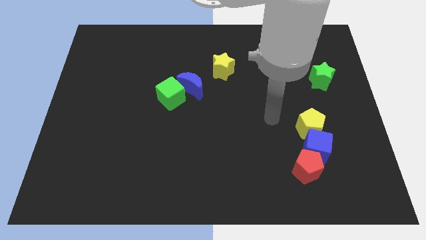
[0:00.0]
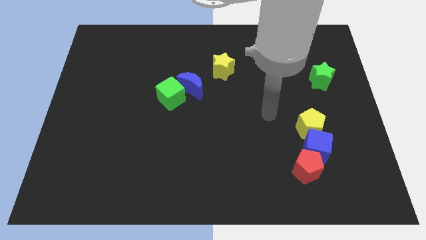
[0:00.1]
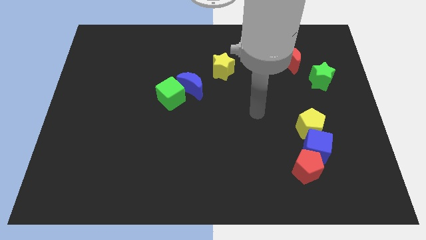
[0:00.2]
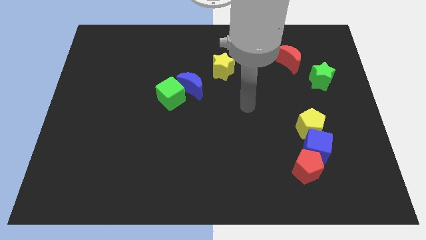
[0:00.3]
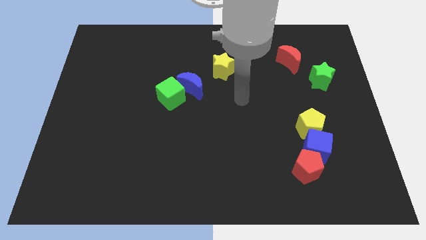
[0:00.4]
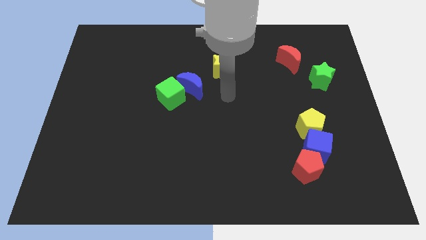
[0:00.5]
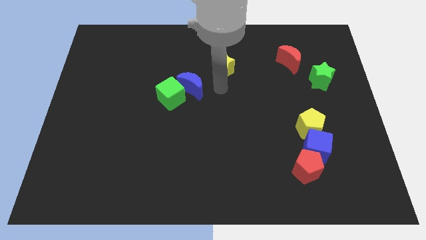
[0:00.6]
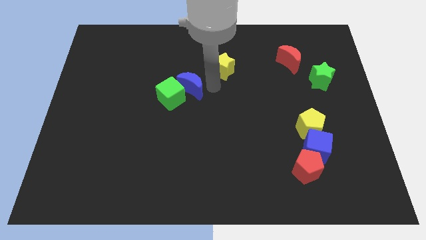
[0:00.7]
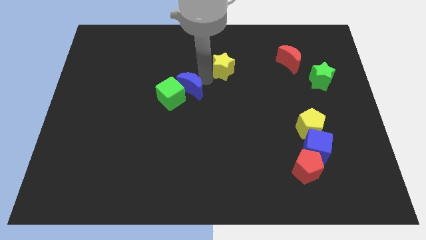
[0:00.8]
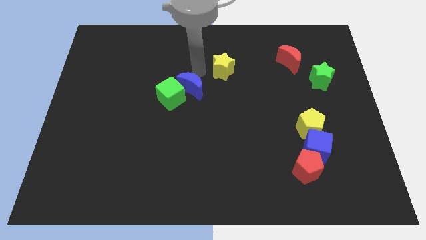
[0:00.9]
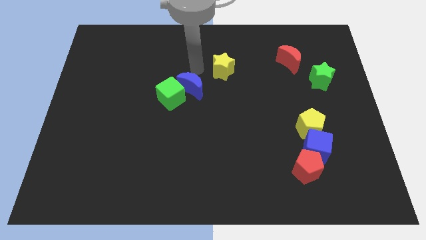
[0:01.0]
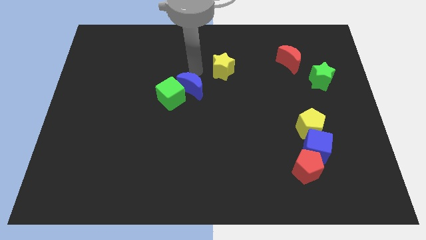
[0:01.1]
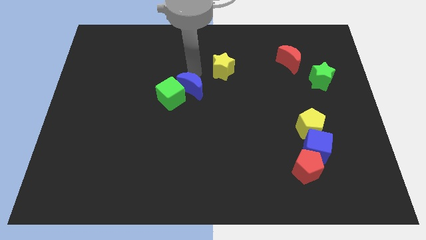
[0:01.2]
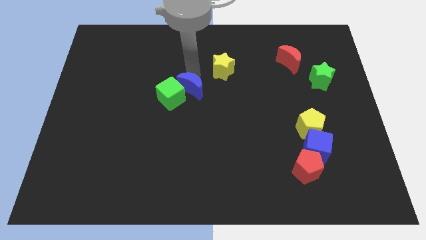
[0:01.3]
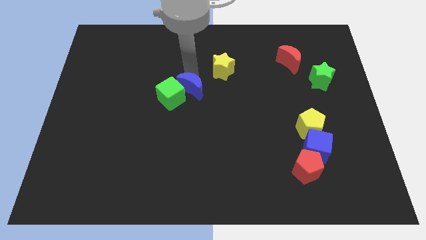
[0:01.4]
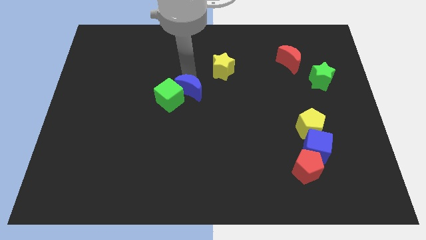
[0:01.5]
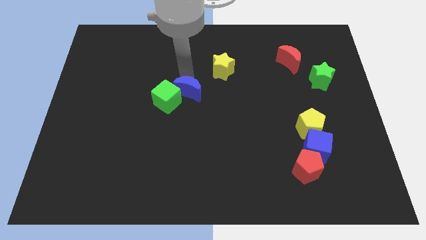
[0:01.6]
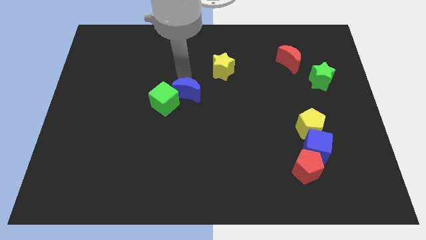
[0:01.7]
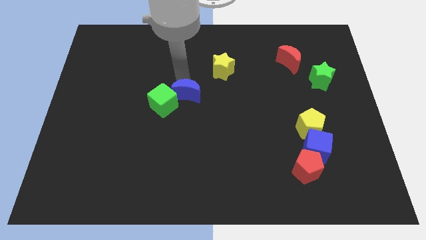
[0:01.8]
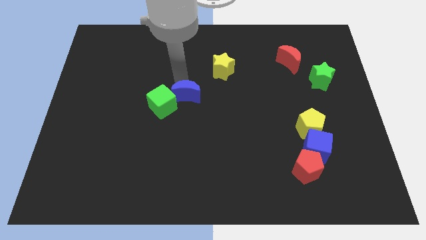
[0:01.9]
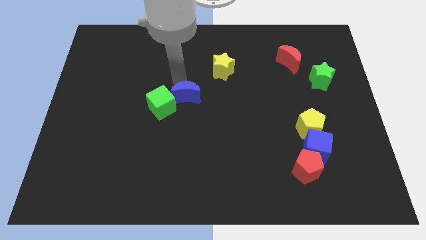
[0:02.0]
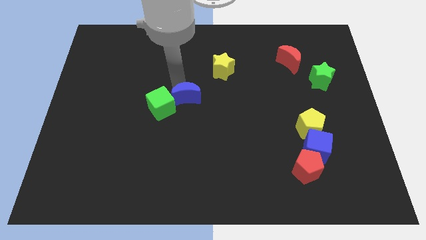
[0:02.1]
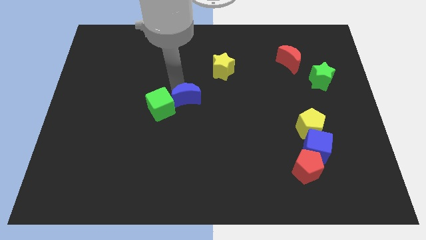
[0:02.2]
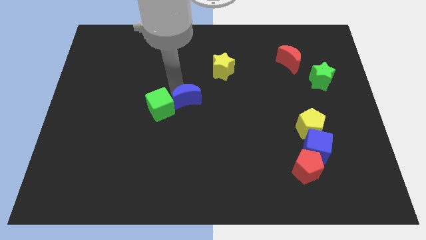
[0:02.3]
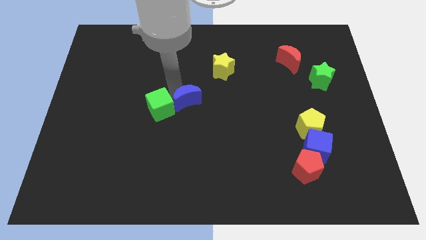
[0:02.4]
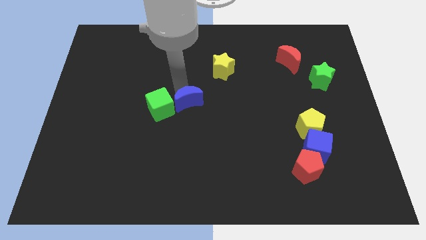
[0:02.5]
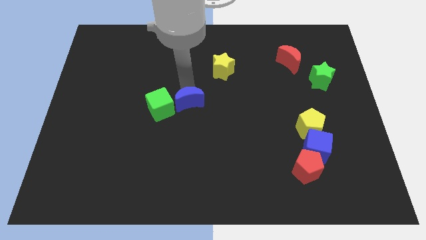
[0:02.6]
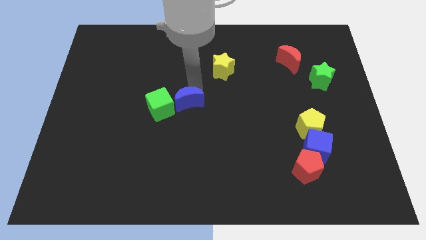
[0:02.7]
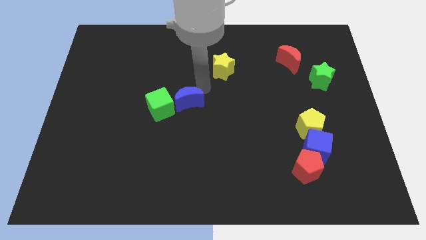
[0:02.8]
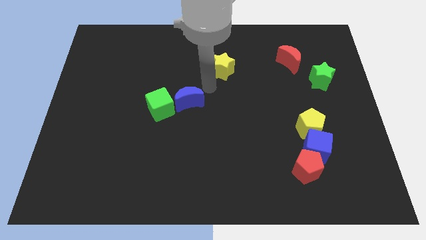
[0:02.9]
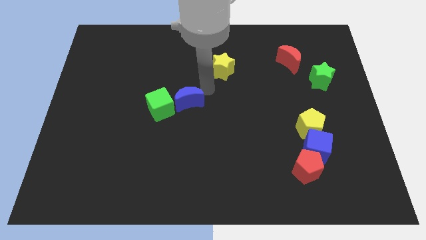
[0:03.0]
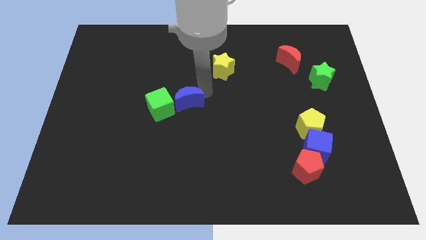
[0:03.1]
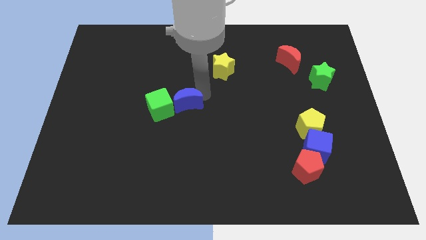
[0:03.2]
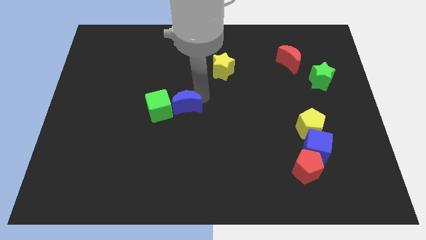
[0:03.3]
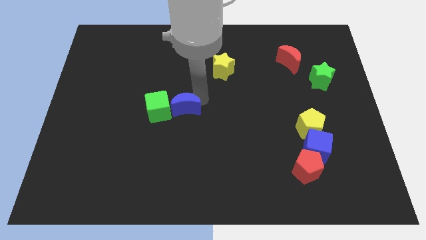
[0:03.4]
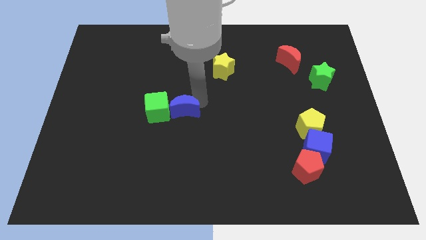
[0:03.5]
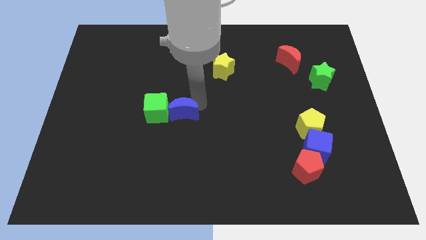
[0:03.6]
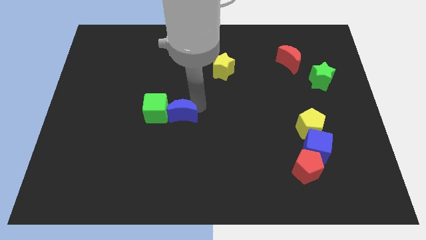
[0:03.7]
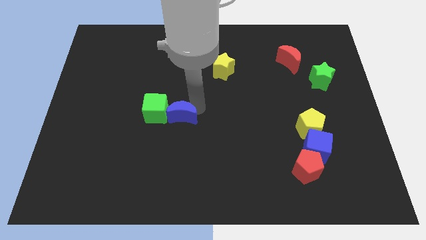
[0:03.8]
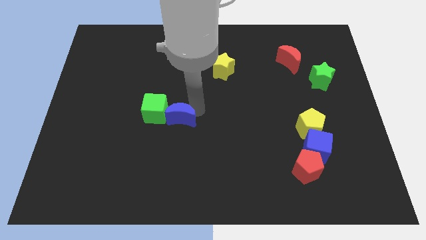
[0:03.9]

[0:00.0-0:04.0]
move the blue moon slightly downwards and then to the left

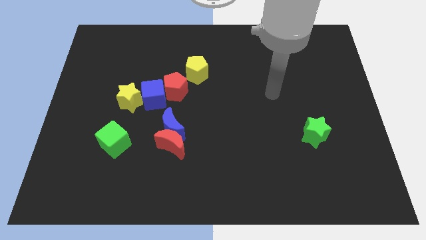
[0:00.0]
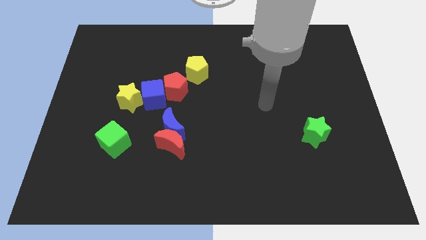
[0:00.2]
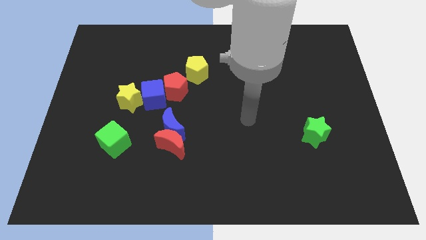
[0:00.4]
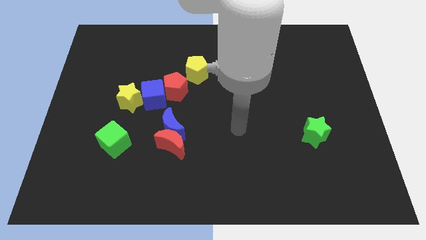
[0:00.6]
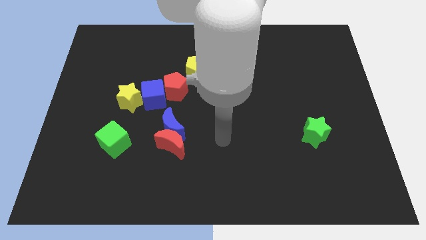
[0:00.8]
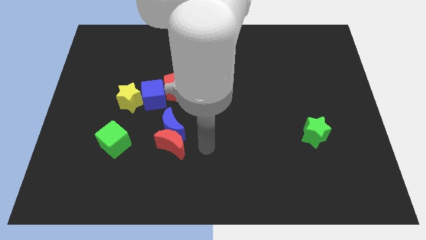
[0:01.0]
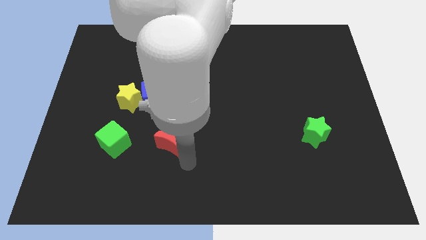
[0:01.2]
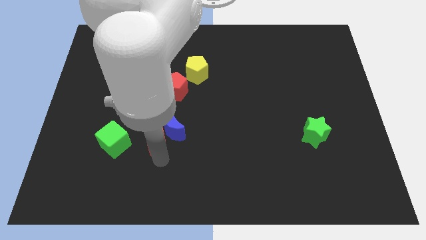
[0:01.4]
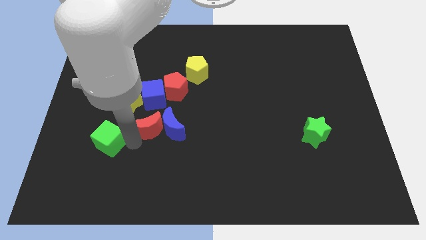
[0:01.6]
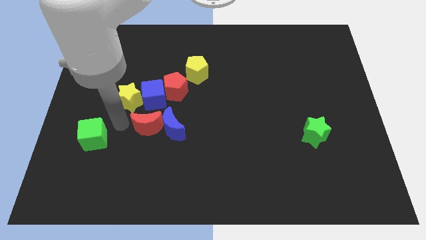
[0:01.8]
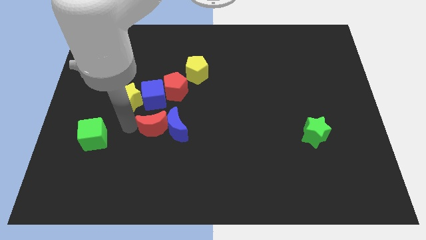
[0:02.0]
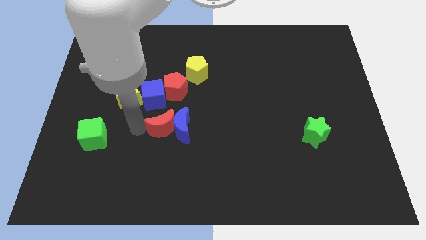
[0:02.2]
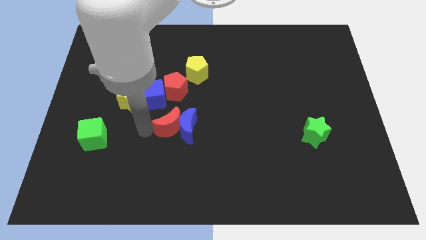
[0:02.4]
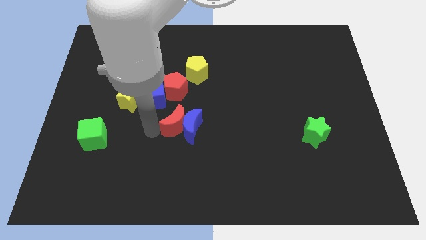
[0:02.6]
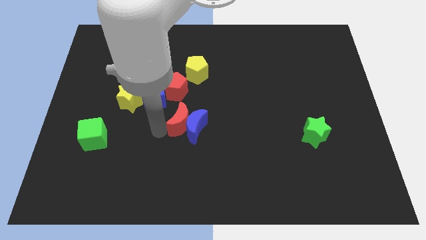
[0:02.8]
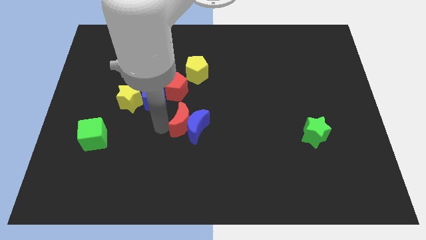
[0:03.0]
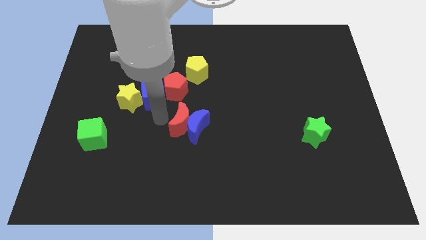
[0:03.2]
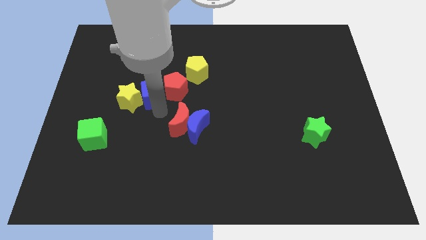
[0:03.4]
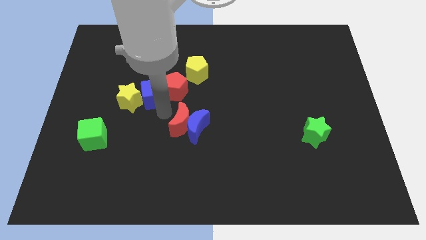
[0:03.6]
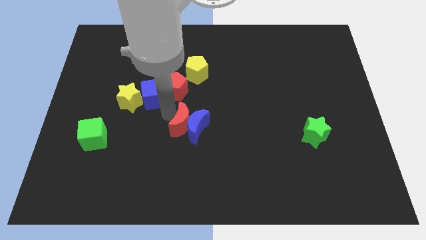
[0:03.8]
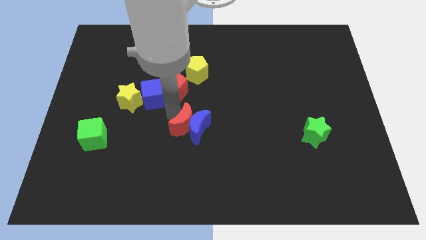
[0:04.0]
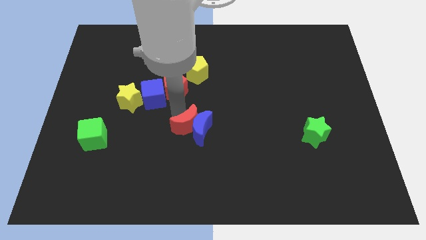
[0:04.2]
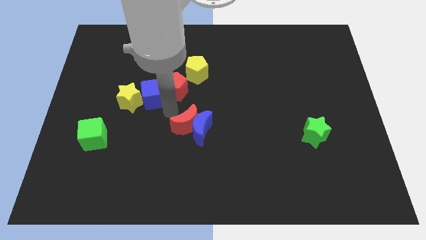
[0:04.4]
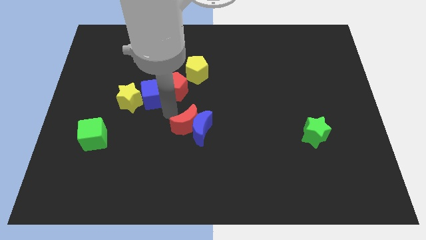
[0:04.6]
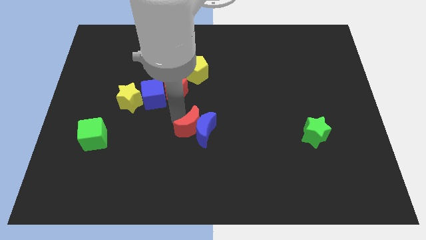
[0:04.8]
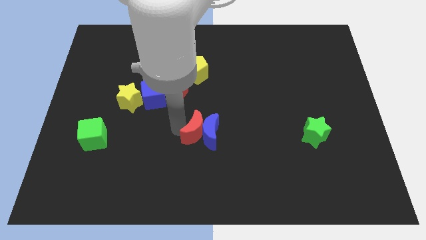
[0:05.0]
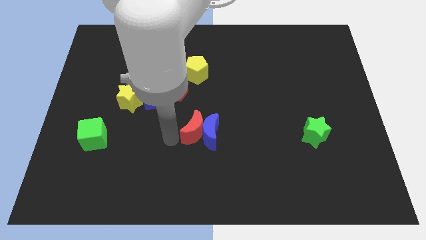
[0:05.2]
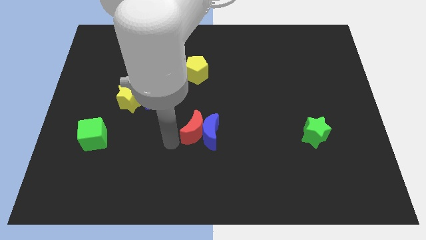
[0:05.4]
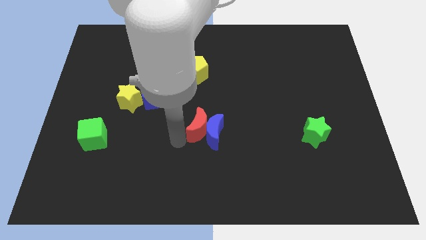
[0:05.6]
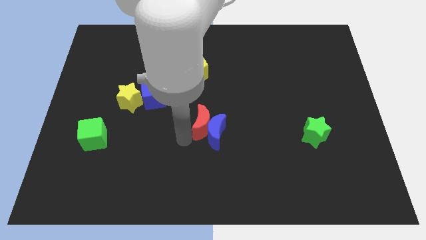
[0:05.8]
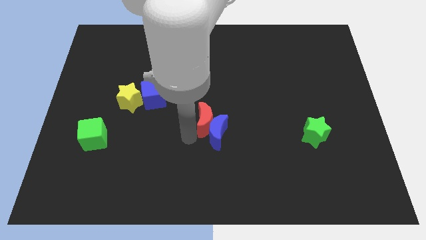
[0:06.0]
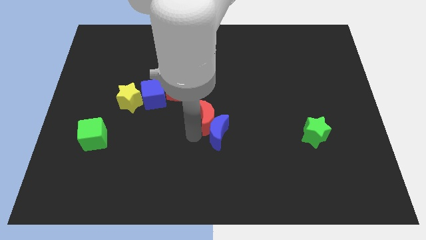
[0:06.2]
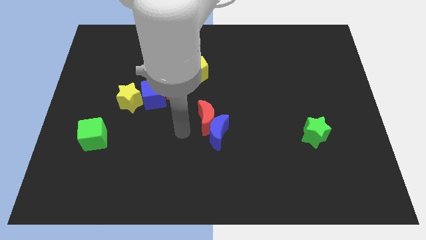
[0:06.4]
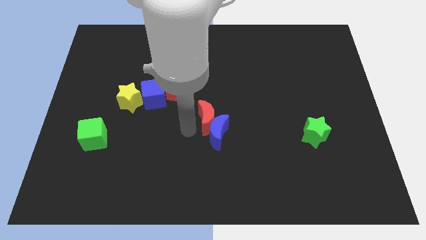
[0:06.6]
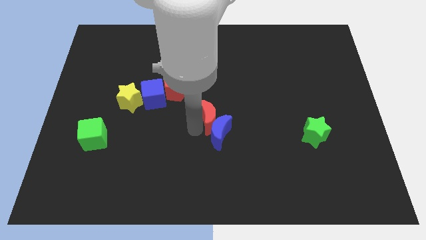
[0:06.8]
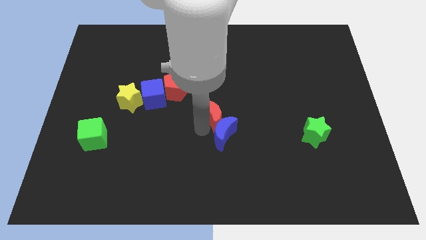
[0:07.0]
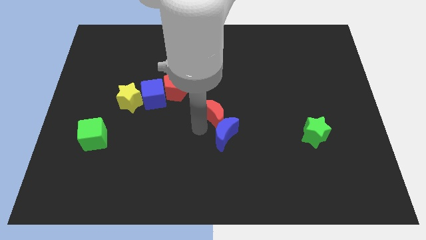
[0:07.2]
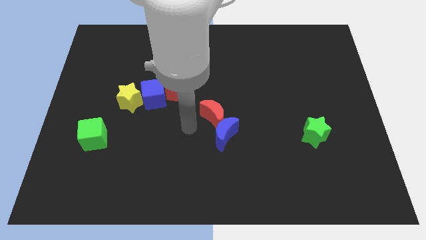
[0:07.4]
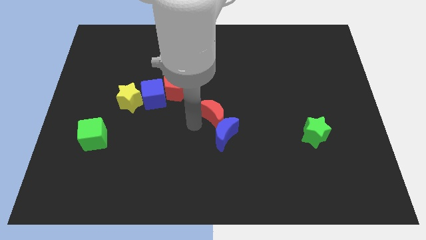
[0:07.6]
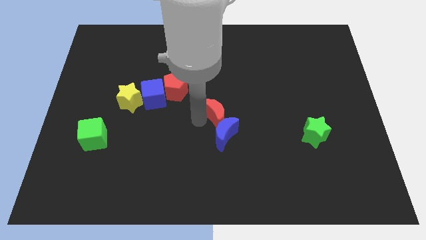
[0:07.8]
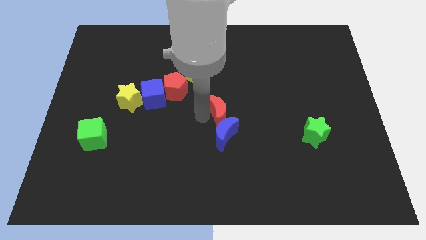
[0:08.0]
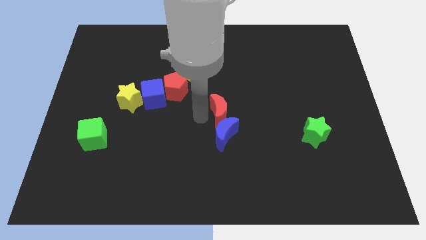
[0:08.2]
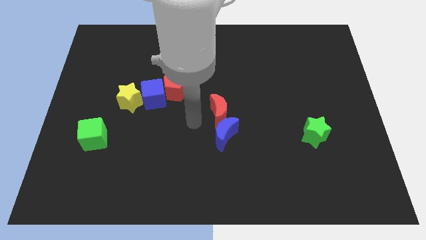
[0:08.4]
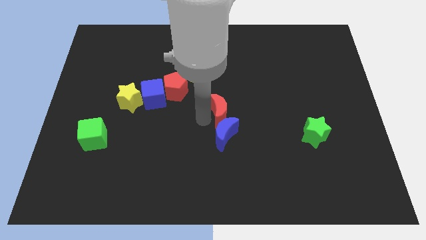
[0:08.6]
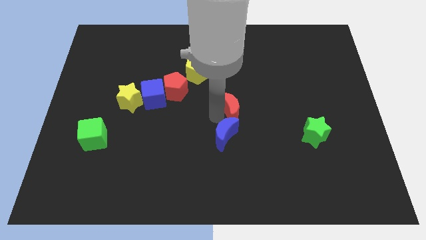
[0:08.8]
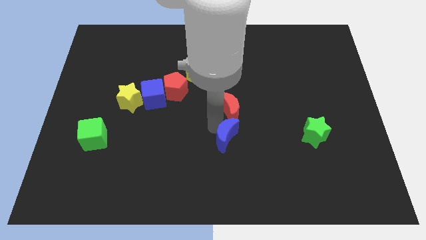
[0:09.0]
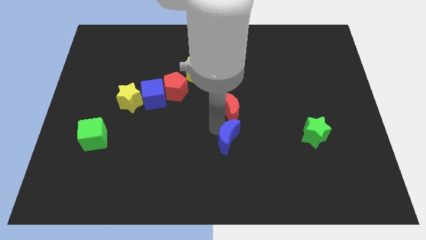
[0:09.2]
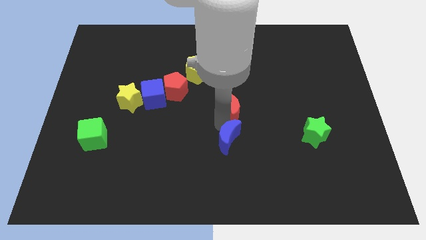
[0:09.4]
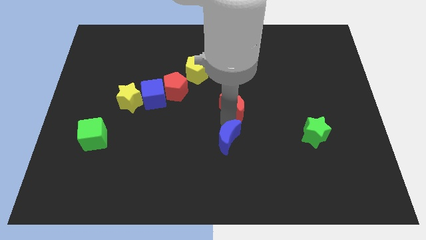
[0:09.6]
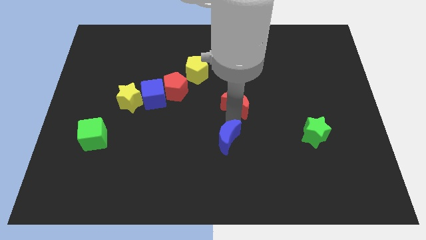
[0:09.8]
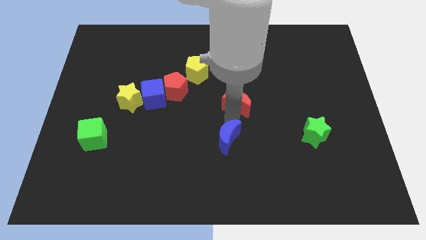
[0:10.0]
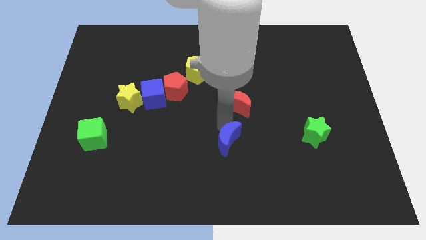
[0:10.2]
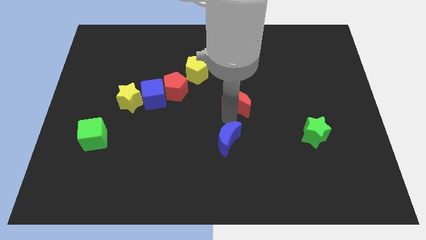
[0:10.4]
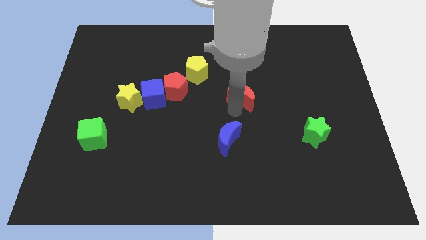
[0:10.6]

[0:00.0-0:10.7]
push the red moon upwards and right diagonally
